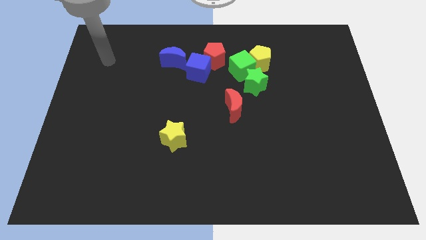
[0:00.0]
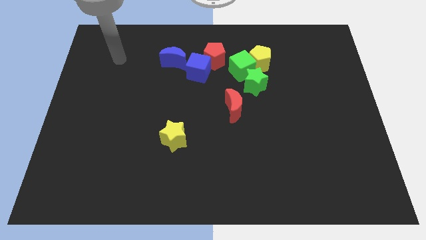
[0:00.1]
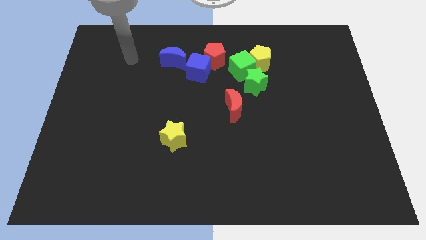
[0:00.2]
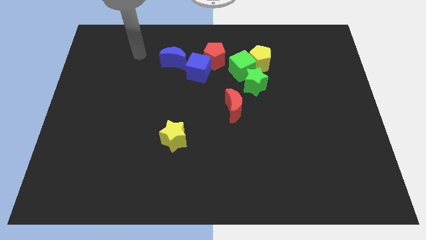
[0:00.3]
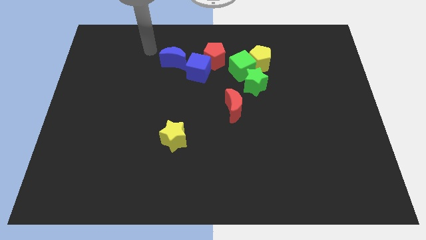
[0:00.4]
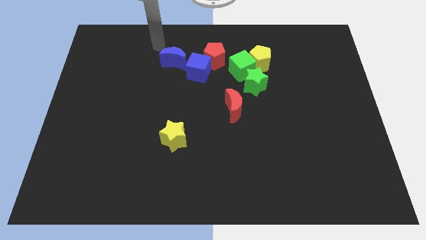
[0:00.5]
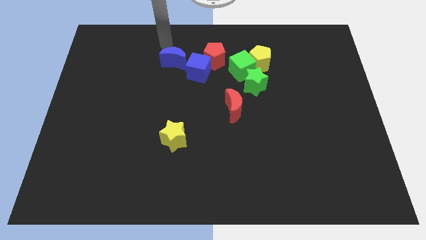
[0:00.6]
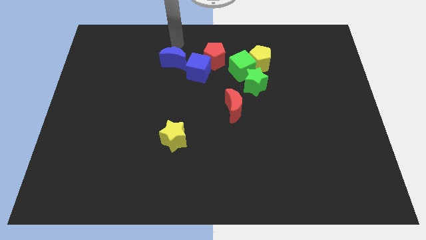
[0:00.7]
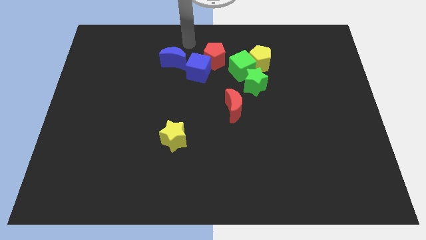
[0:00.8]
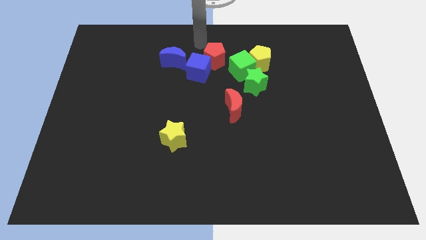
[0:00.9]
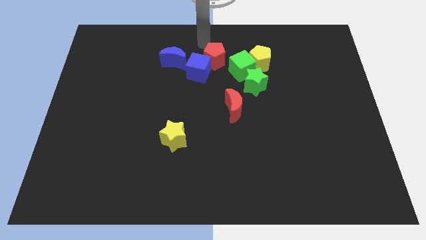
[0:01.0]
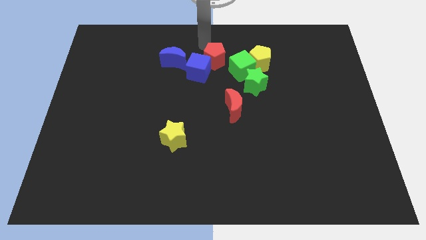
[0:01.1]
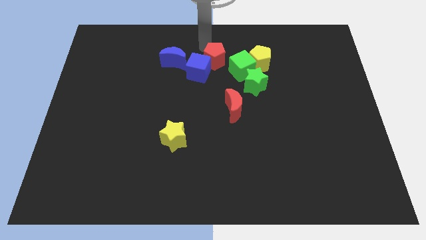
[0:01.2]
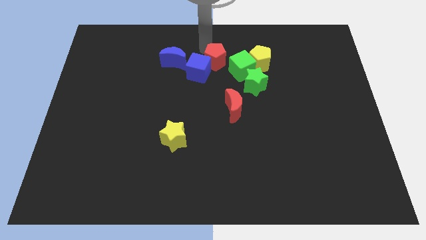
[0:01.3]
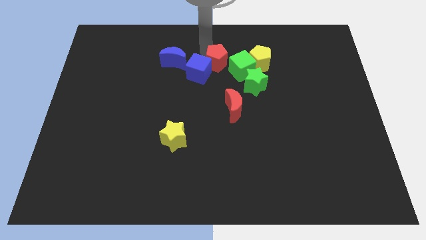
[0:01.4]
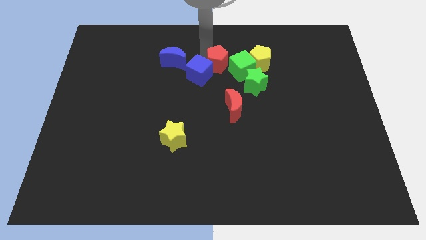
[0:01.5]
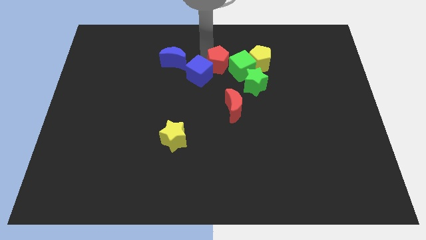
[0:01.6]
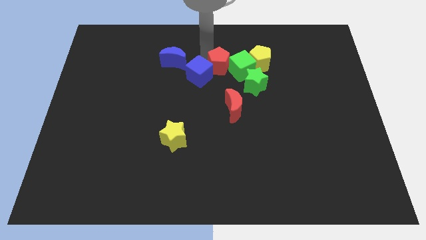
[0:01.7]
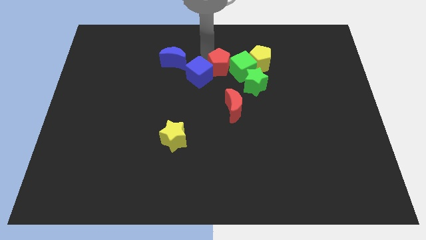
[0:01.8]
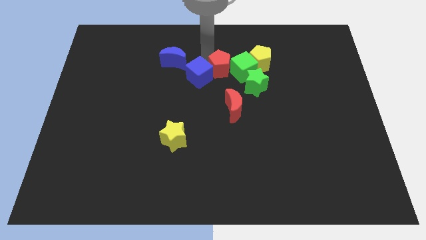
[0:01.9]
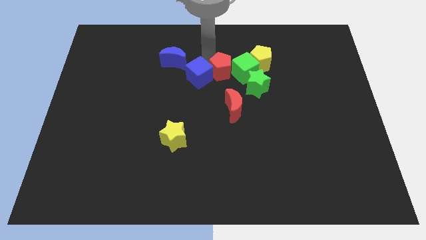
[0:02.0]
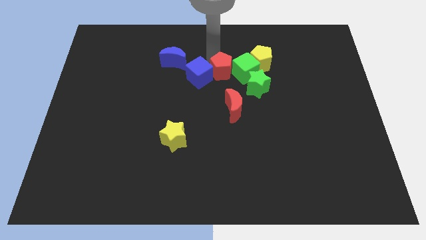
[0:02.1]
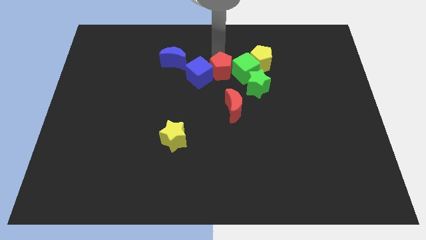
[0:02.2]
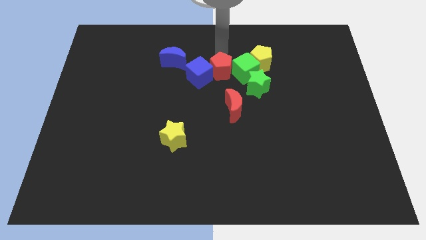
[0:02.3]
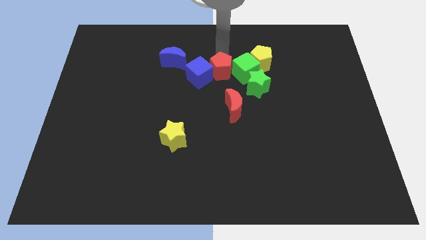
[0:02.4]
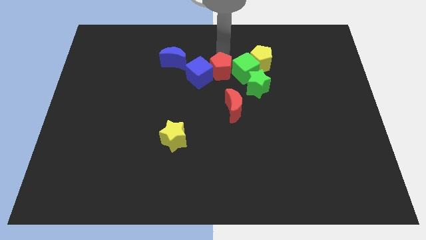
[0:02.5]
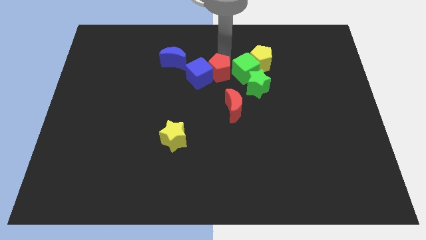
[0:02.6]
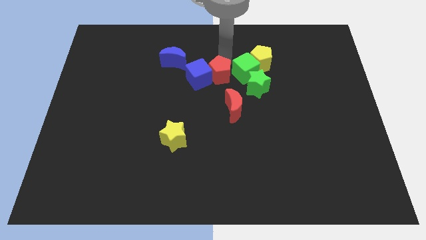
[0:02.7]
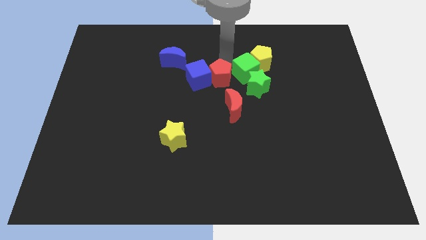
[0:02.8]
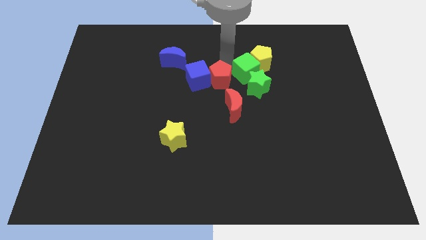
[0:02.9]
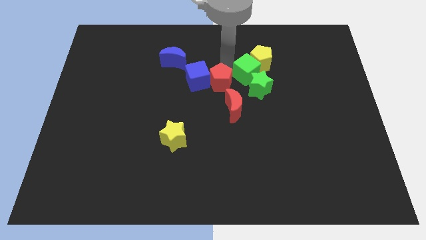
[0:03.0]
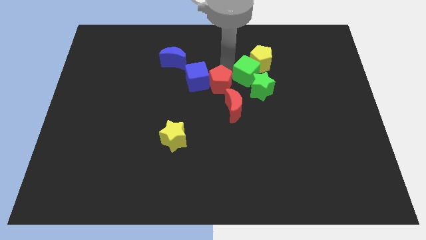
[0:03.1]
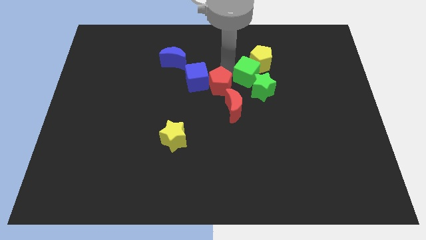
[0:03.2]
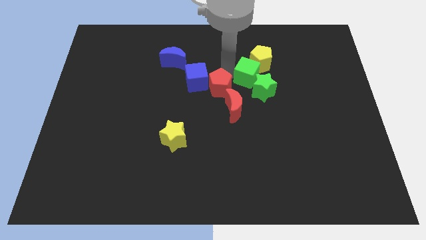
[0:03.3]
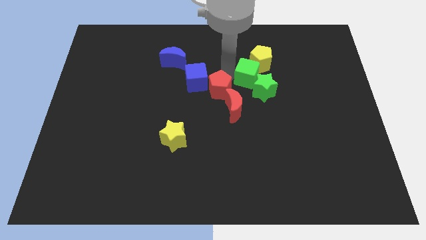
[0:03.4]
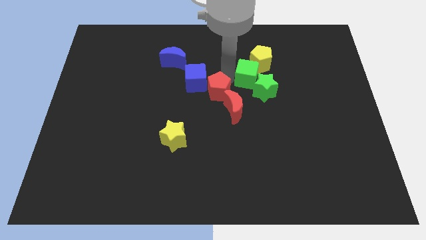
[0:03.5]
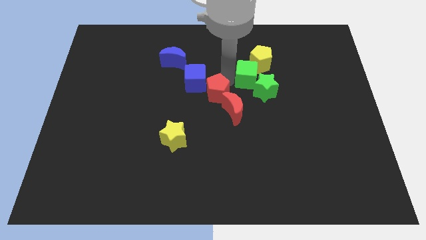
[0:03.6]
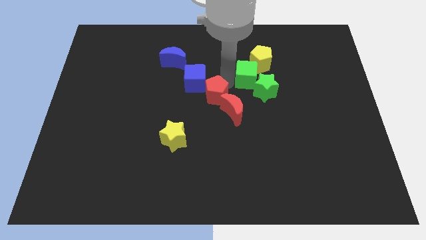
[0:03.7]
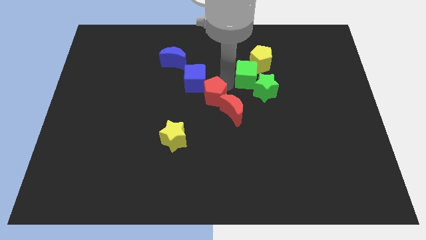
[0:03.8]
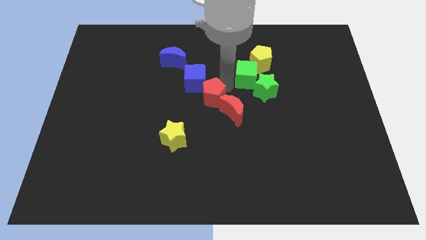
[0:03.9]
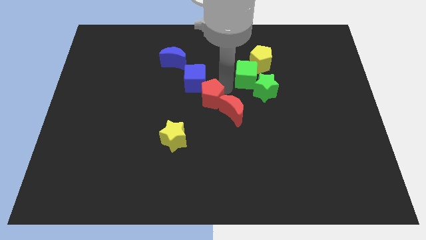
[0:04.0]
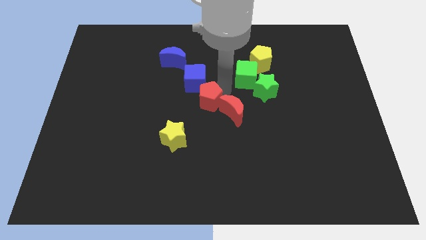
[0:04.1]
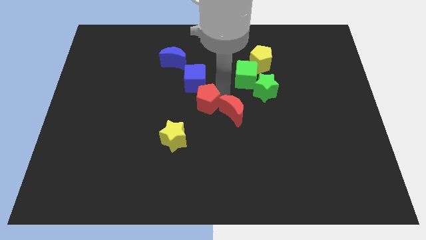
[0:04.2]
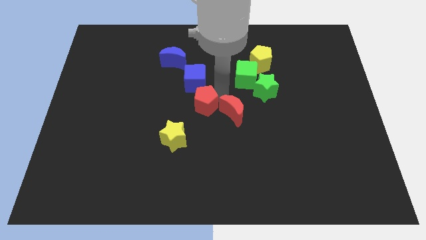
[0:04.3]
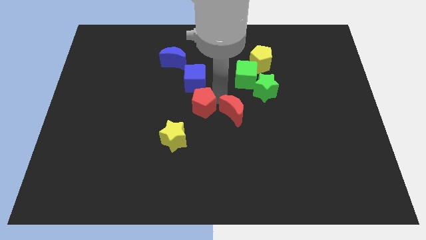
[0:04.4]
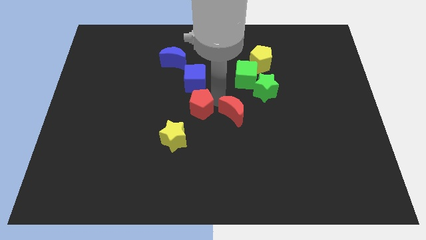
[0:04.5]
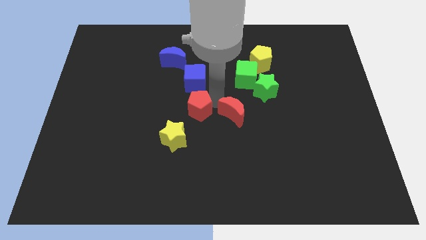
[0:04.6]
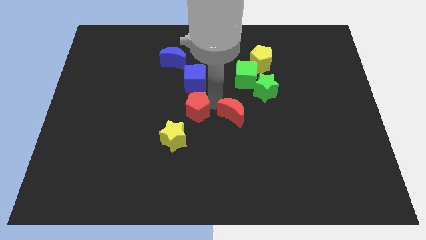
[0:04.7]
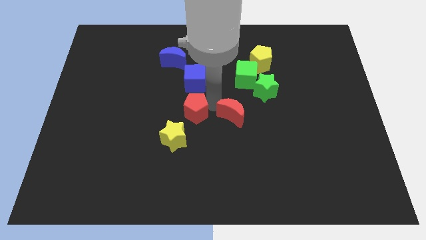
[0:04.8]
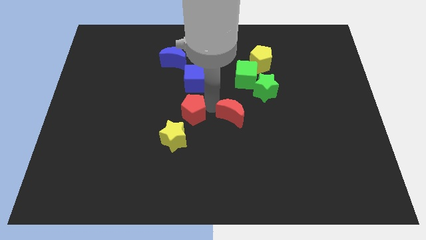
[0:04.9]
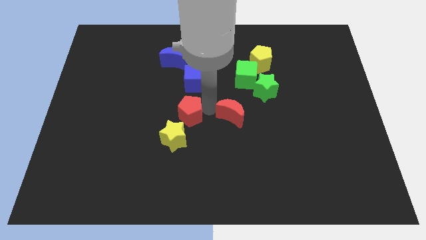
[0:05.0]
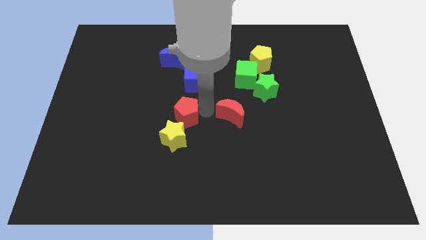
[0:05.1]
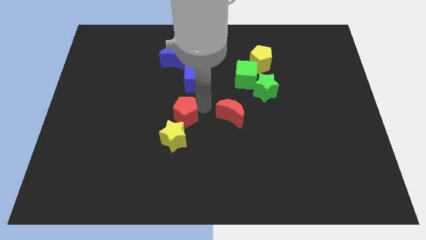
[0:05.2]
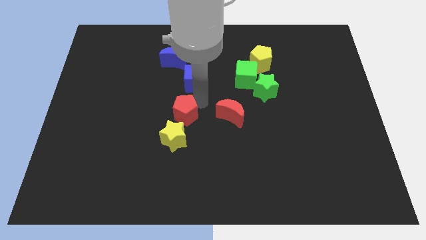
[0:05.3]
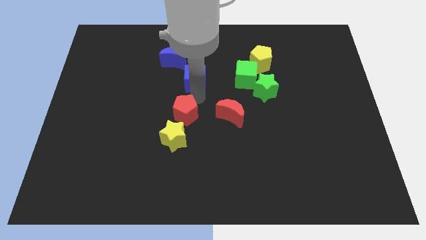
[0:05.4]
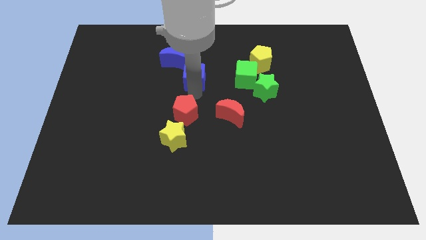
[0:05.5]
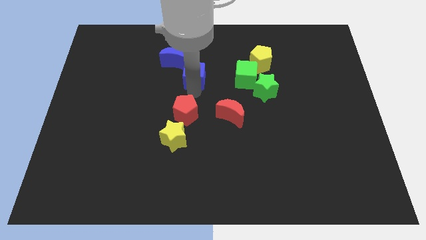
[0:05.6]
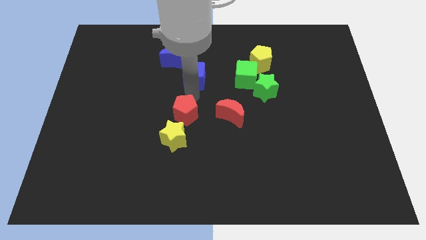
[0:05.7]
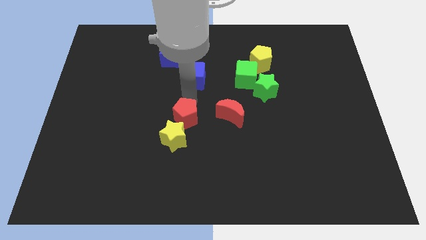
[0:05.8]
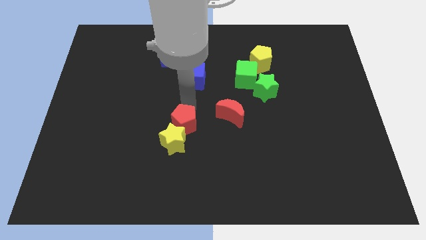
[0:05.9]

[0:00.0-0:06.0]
slide the red pentagon next to the yellow star

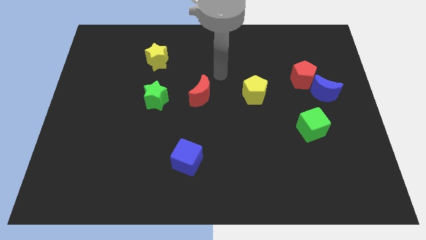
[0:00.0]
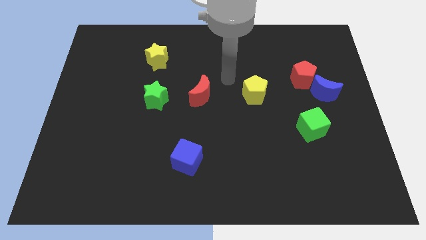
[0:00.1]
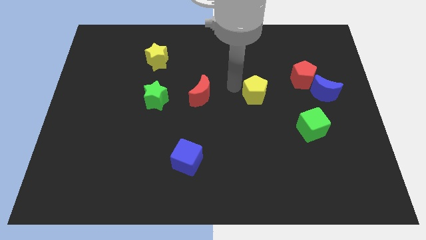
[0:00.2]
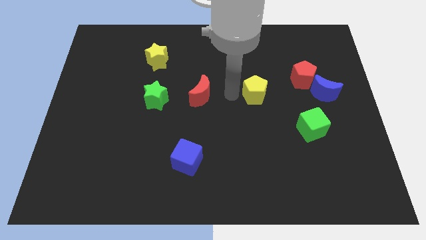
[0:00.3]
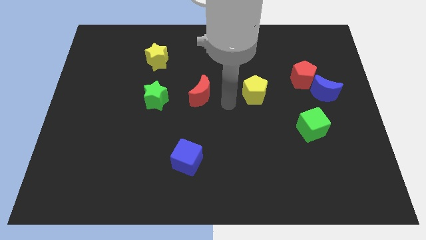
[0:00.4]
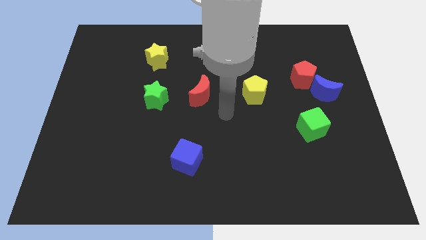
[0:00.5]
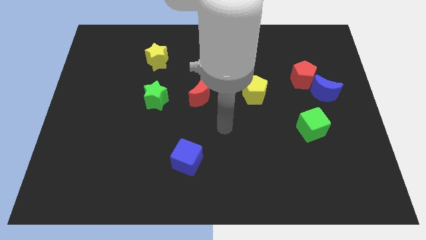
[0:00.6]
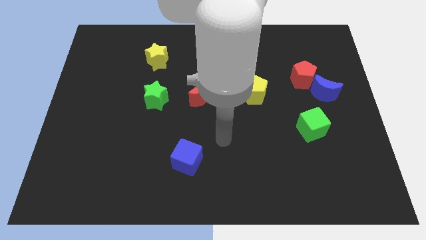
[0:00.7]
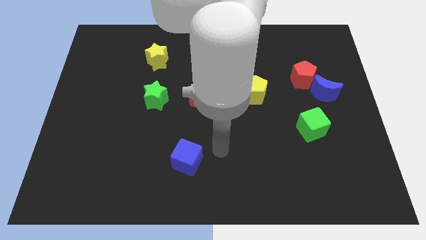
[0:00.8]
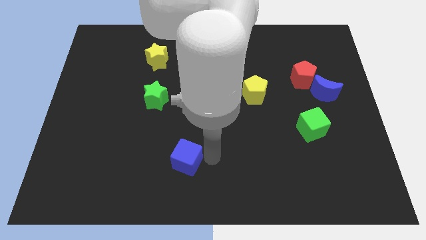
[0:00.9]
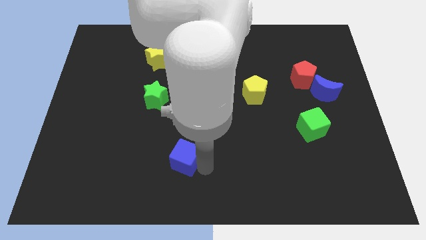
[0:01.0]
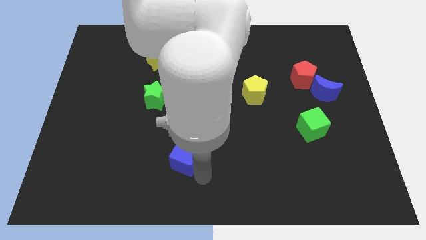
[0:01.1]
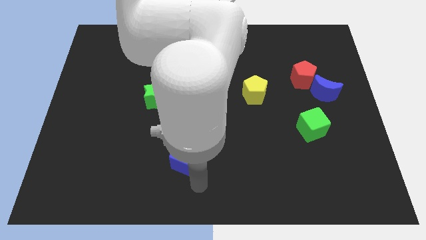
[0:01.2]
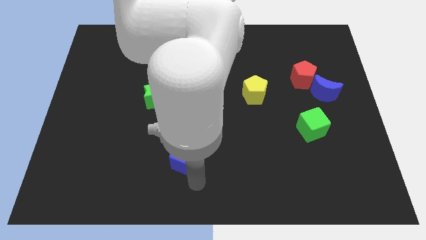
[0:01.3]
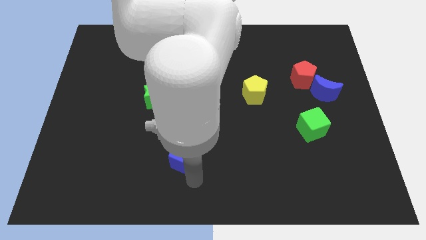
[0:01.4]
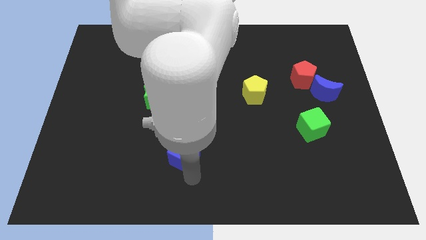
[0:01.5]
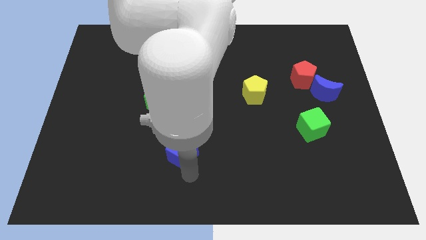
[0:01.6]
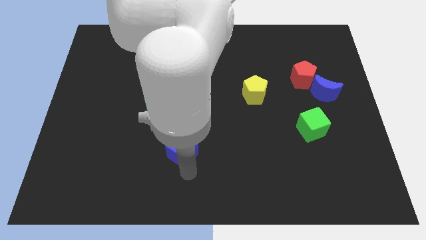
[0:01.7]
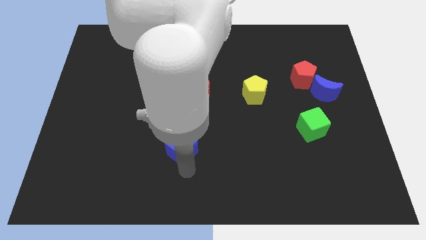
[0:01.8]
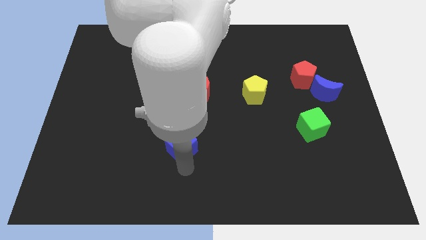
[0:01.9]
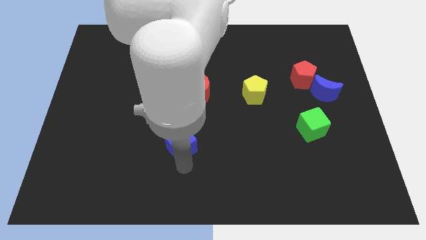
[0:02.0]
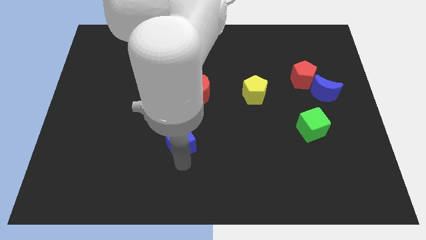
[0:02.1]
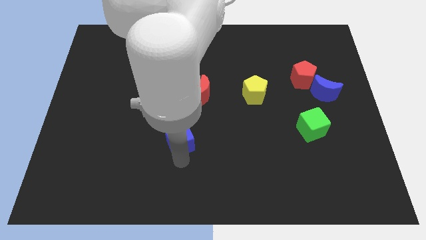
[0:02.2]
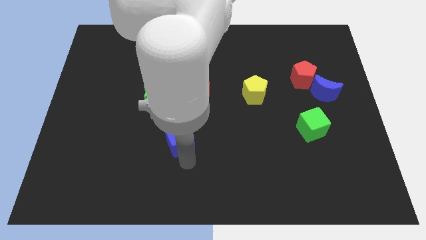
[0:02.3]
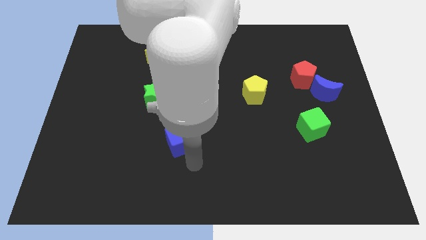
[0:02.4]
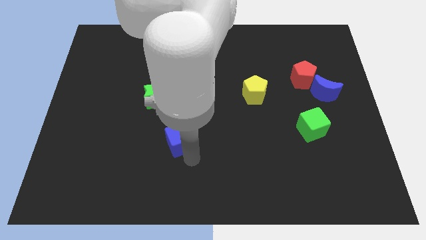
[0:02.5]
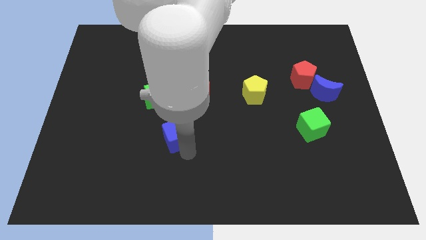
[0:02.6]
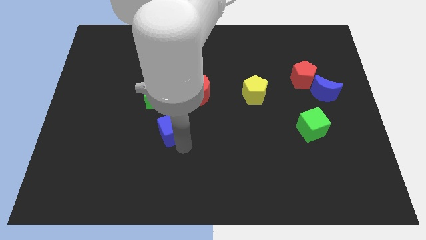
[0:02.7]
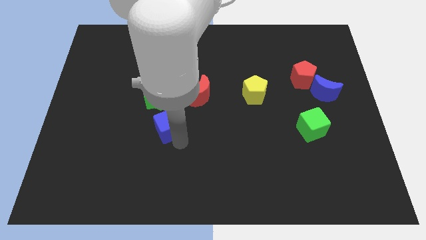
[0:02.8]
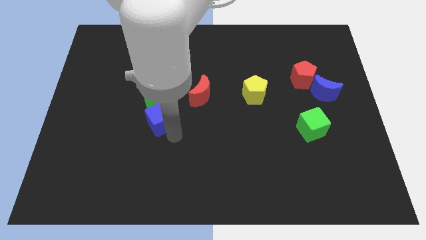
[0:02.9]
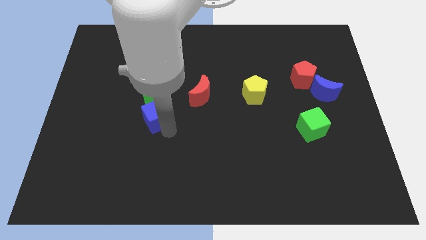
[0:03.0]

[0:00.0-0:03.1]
push the blue cube towards the green star
